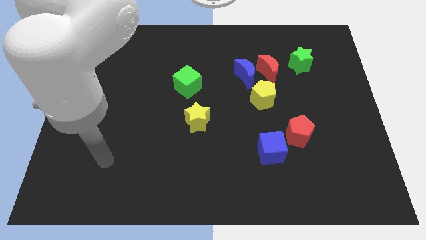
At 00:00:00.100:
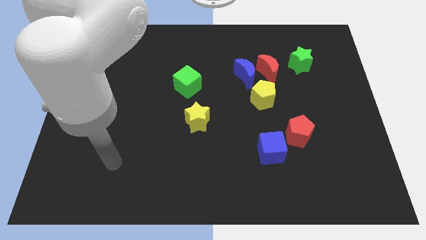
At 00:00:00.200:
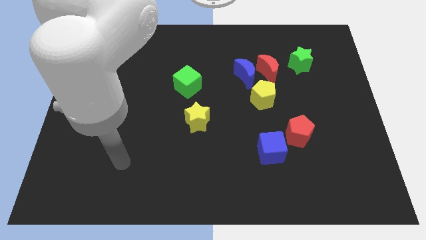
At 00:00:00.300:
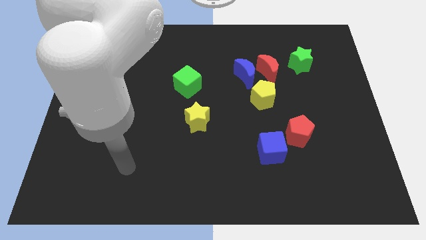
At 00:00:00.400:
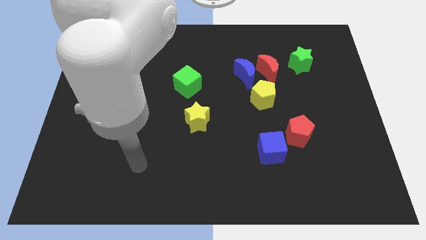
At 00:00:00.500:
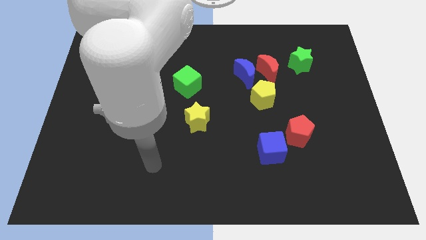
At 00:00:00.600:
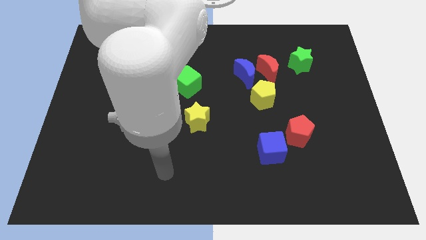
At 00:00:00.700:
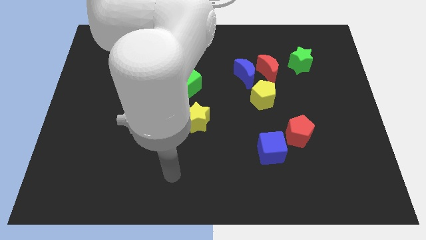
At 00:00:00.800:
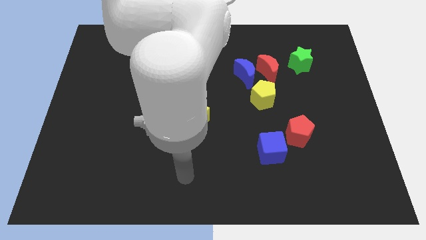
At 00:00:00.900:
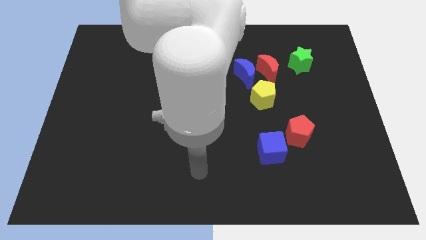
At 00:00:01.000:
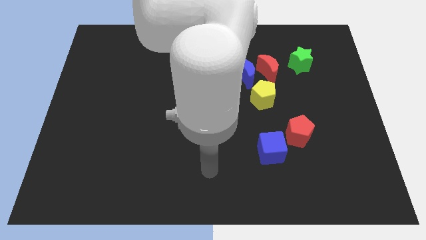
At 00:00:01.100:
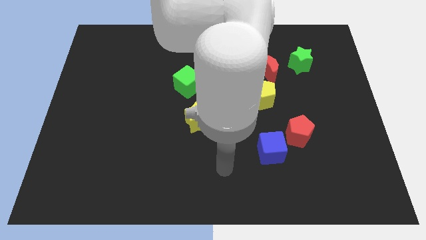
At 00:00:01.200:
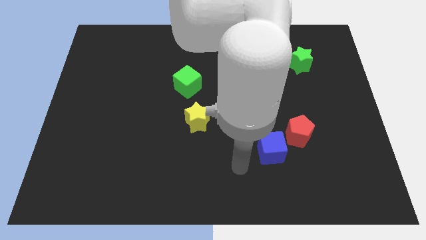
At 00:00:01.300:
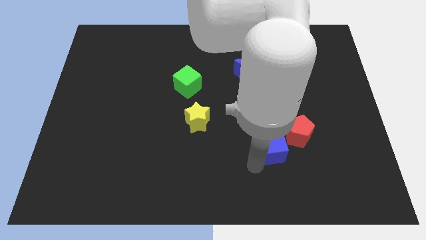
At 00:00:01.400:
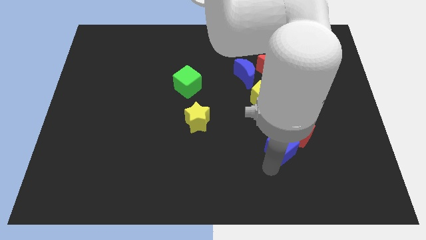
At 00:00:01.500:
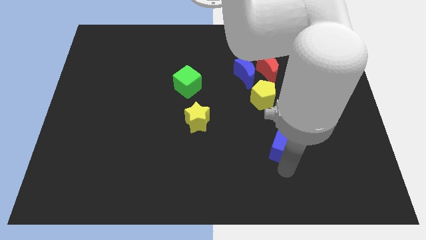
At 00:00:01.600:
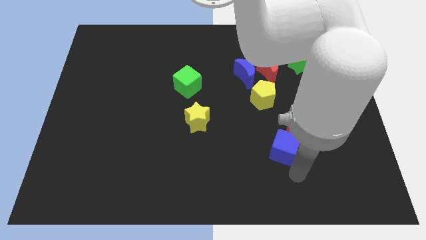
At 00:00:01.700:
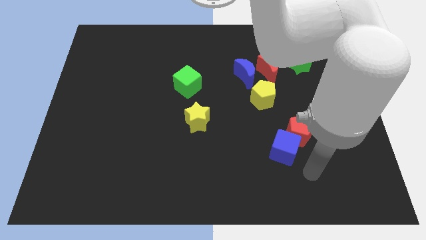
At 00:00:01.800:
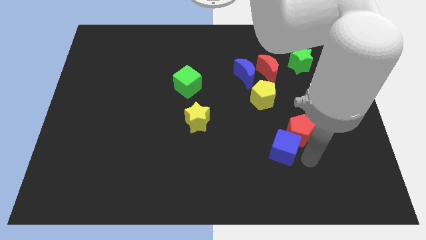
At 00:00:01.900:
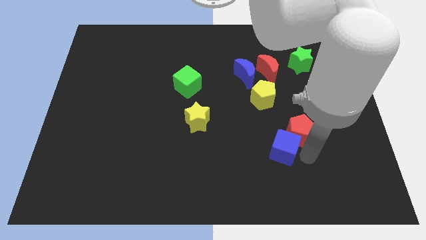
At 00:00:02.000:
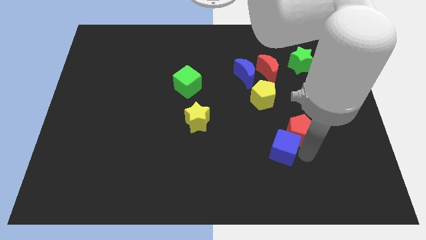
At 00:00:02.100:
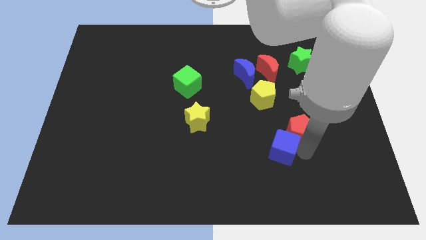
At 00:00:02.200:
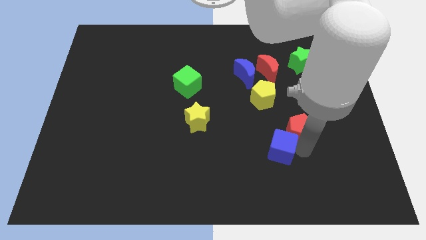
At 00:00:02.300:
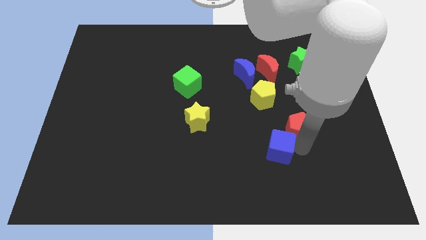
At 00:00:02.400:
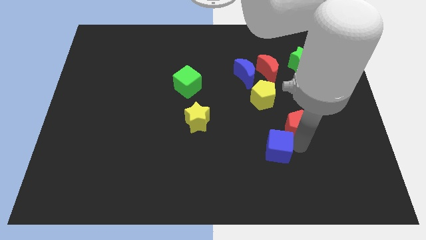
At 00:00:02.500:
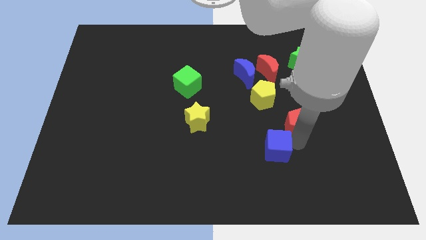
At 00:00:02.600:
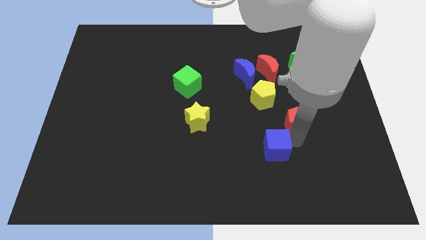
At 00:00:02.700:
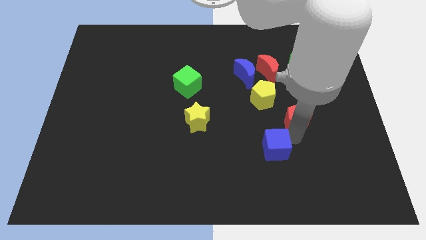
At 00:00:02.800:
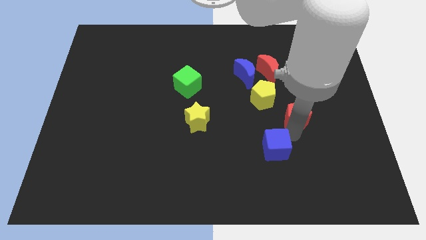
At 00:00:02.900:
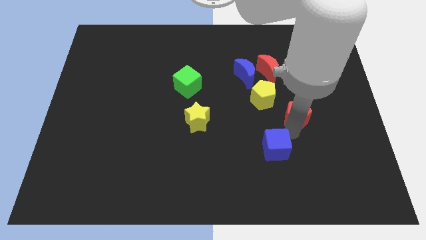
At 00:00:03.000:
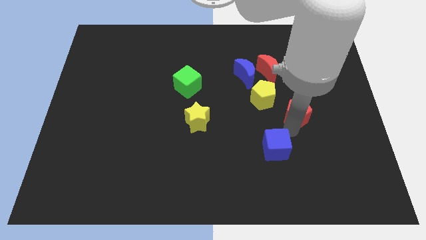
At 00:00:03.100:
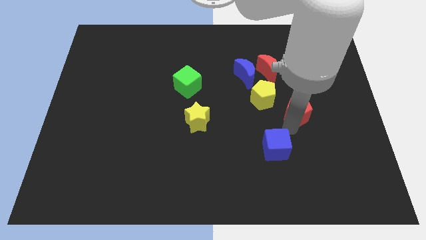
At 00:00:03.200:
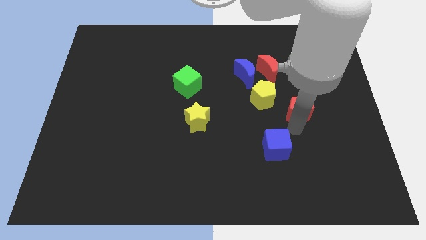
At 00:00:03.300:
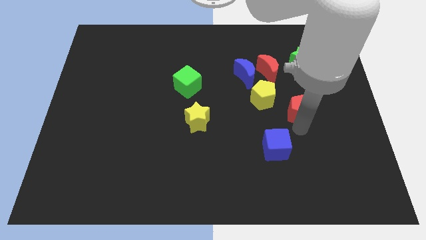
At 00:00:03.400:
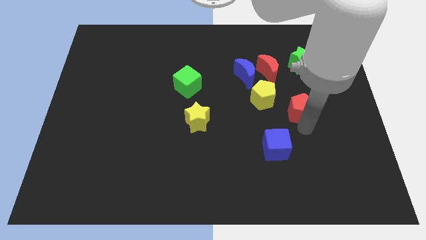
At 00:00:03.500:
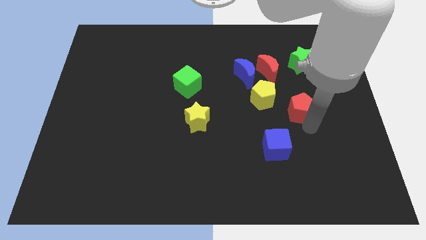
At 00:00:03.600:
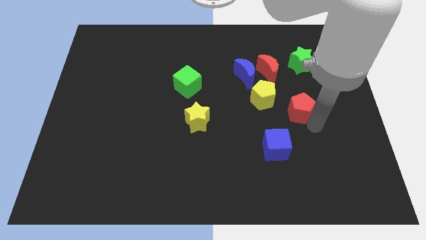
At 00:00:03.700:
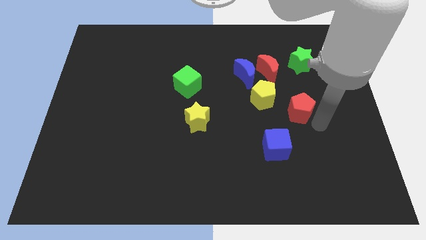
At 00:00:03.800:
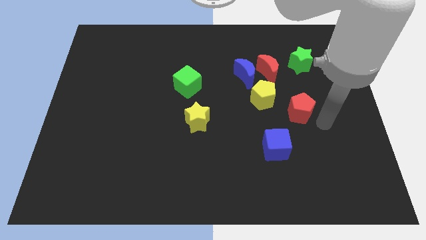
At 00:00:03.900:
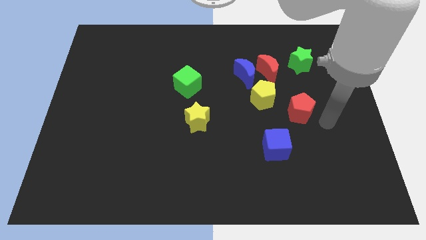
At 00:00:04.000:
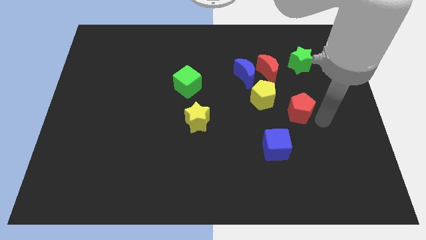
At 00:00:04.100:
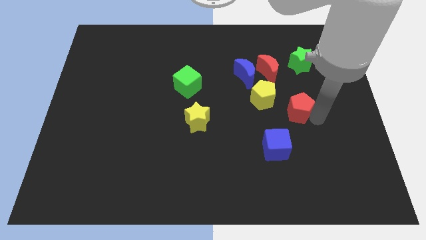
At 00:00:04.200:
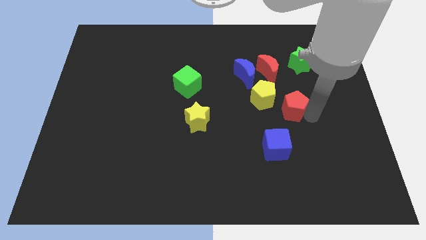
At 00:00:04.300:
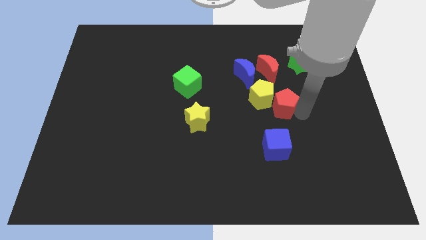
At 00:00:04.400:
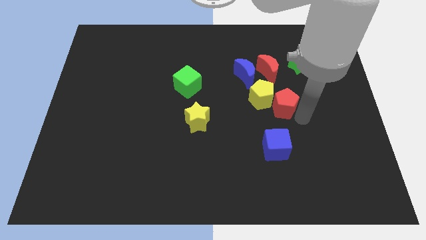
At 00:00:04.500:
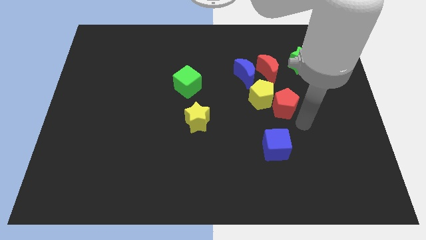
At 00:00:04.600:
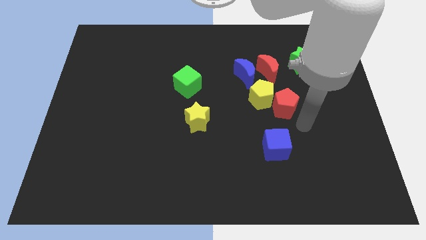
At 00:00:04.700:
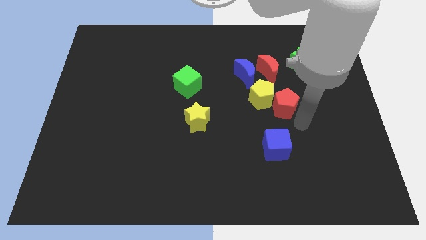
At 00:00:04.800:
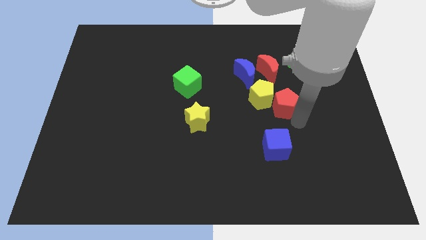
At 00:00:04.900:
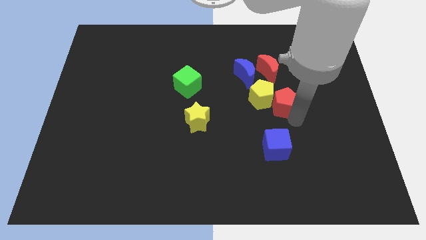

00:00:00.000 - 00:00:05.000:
put the red pentagon to the bottom right of the blue moon

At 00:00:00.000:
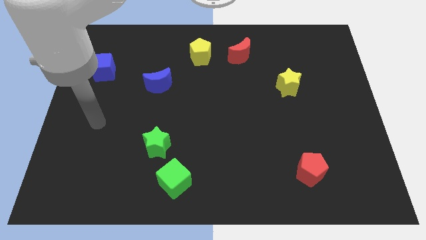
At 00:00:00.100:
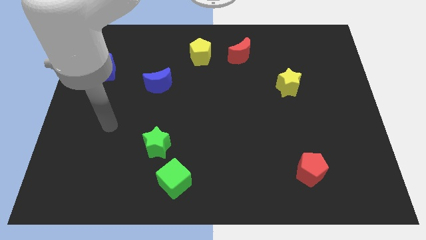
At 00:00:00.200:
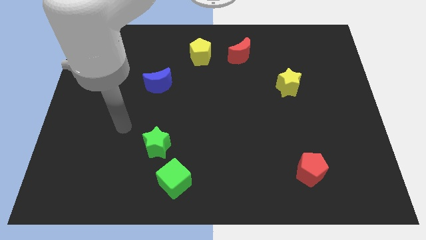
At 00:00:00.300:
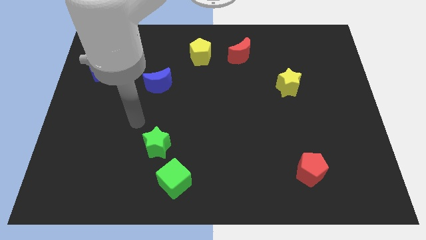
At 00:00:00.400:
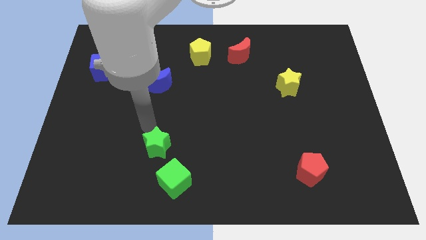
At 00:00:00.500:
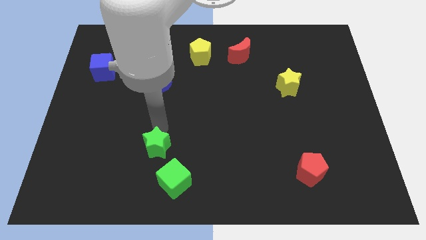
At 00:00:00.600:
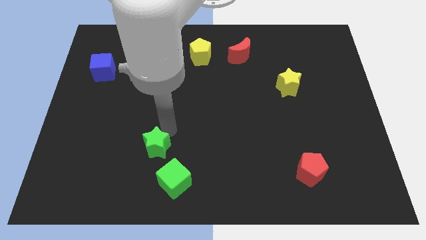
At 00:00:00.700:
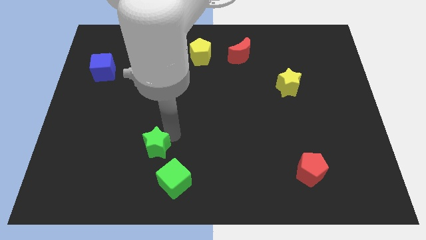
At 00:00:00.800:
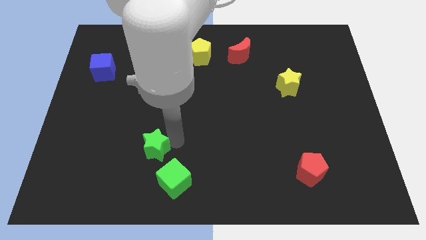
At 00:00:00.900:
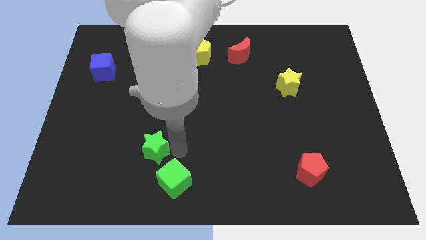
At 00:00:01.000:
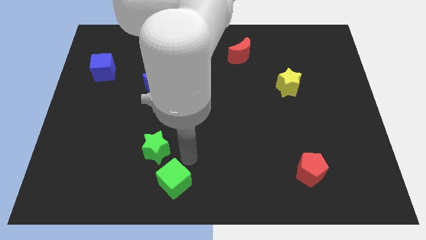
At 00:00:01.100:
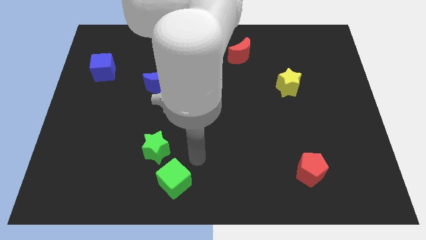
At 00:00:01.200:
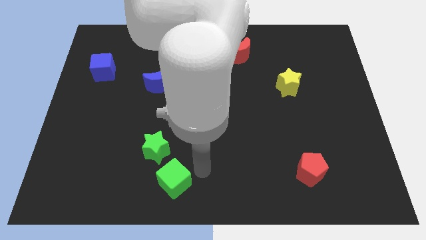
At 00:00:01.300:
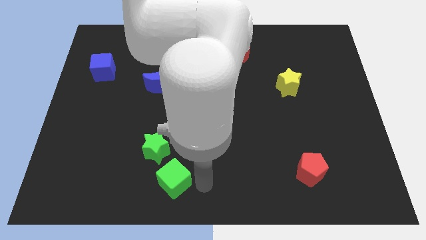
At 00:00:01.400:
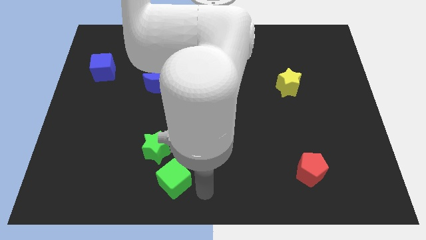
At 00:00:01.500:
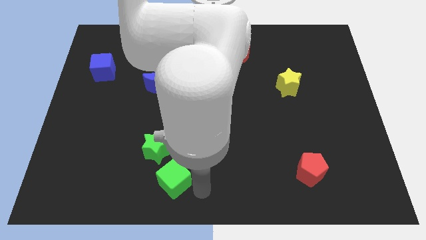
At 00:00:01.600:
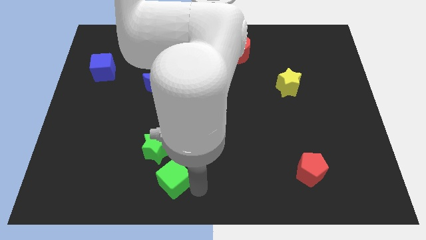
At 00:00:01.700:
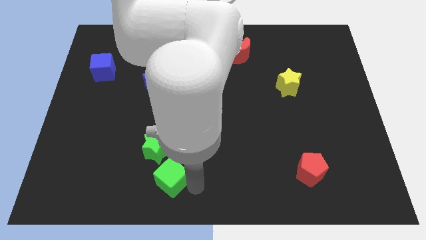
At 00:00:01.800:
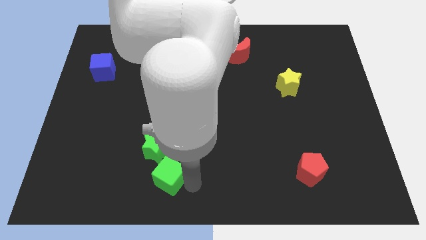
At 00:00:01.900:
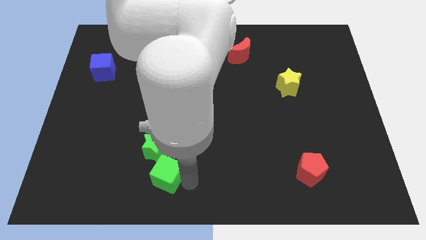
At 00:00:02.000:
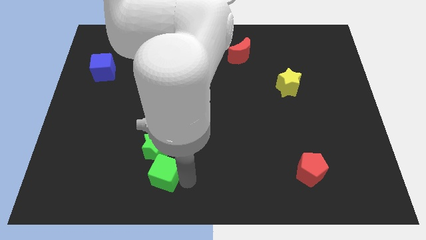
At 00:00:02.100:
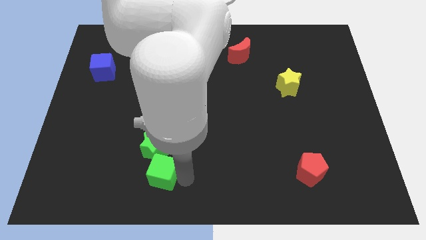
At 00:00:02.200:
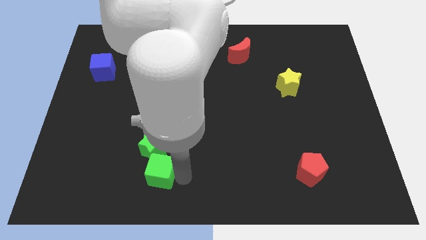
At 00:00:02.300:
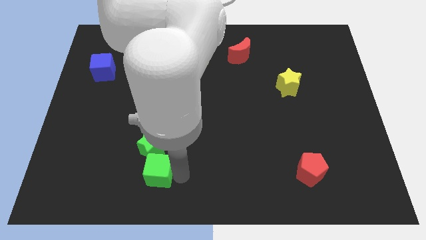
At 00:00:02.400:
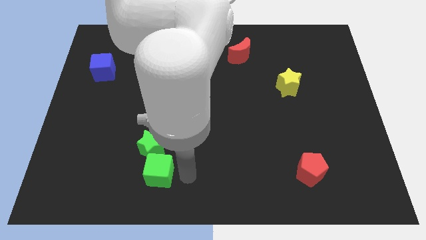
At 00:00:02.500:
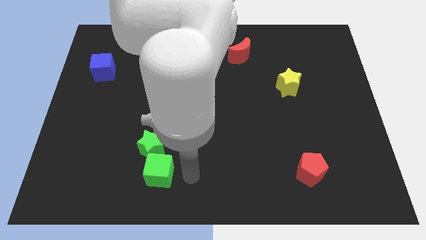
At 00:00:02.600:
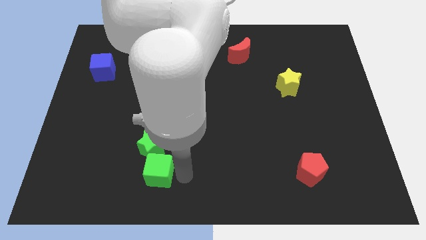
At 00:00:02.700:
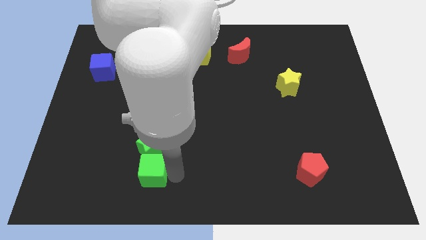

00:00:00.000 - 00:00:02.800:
put the green cube to the bottom left side of the green star
